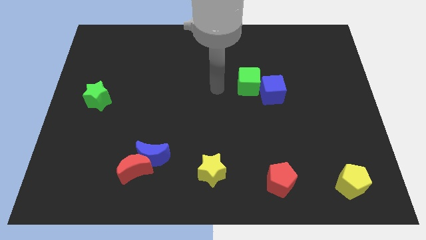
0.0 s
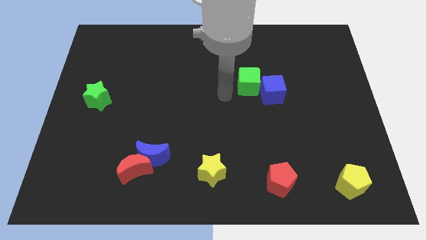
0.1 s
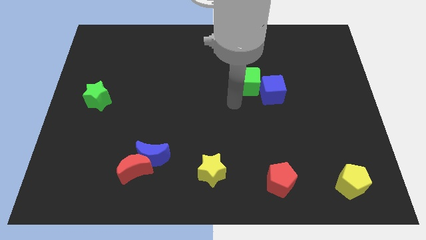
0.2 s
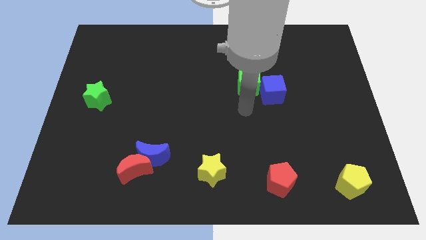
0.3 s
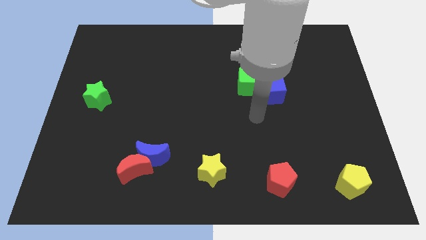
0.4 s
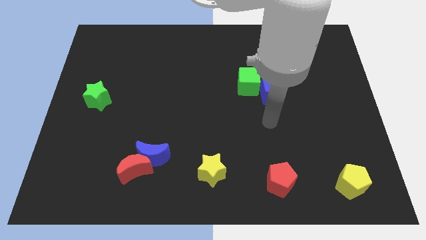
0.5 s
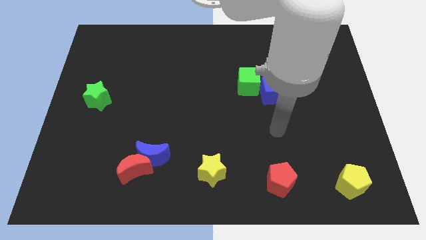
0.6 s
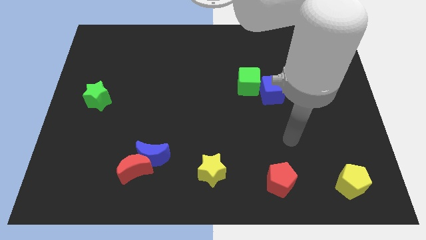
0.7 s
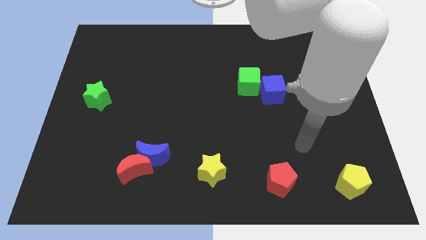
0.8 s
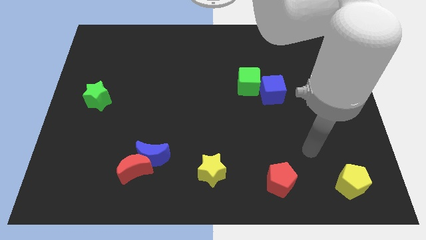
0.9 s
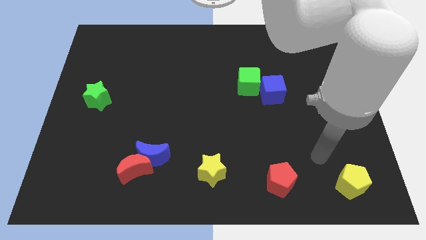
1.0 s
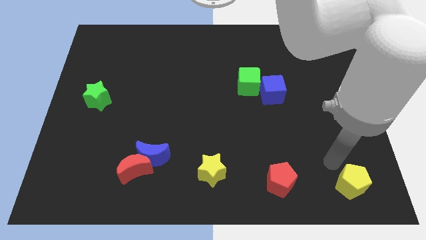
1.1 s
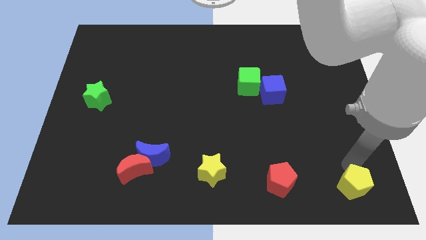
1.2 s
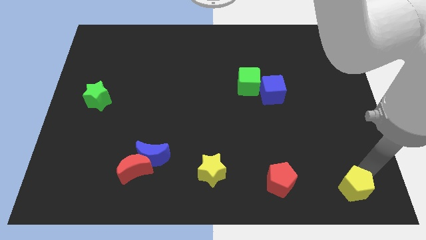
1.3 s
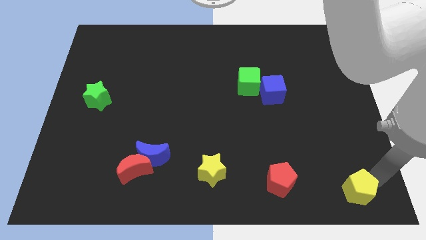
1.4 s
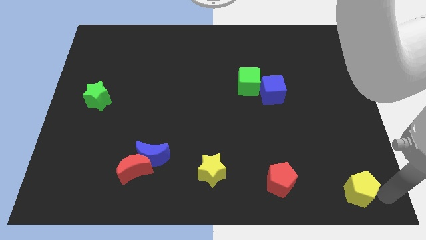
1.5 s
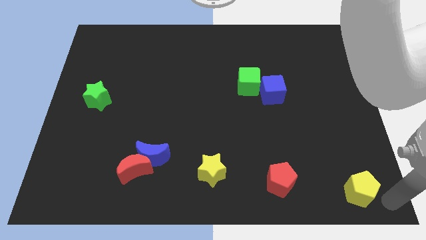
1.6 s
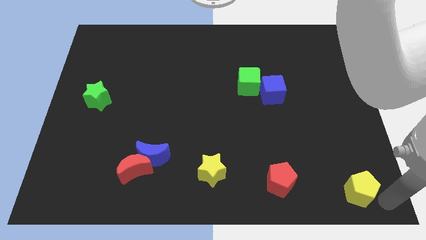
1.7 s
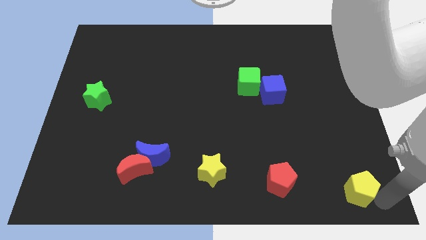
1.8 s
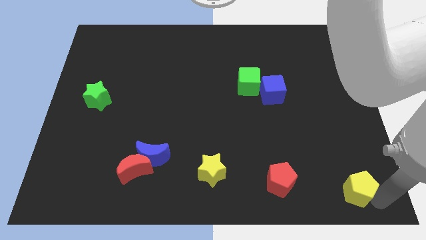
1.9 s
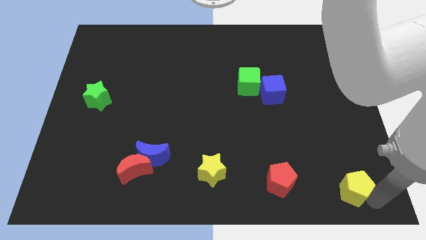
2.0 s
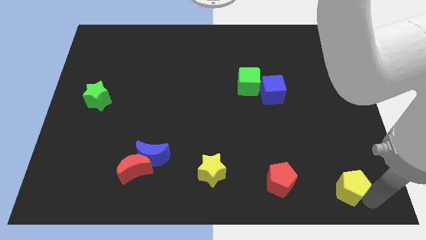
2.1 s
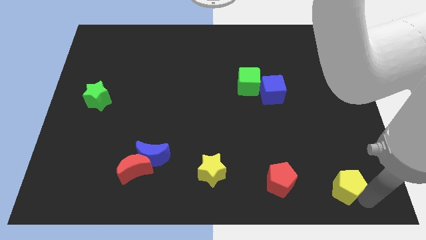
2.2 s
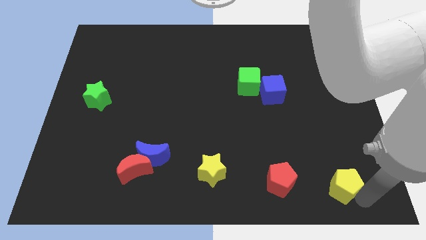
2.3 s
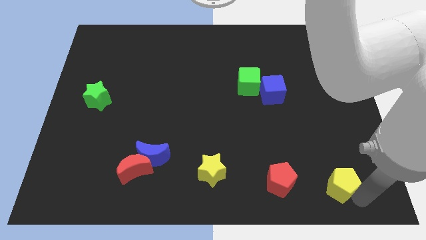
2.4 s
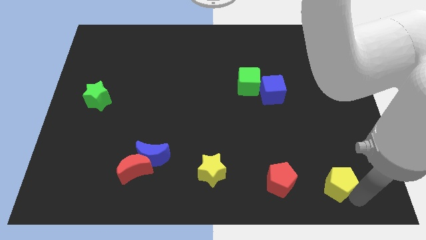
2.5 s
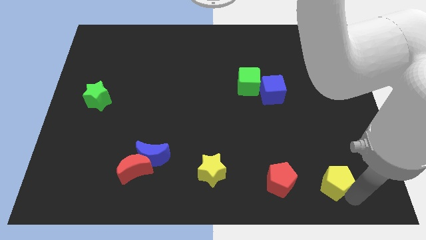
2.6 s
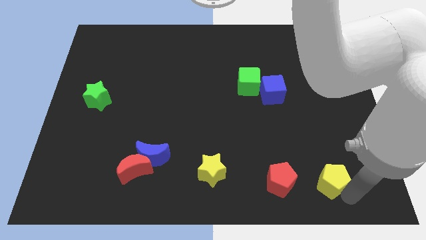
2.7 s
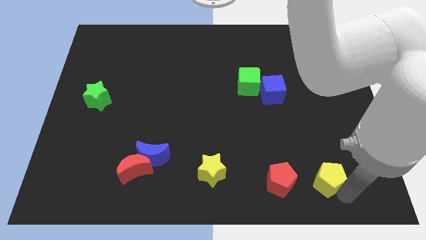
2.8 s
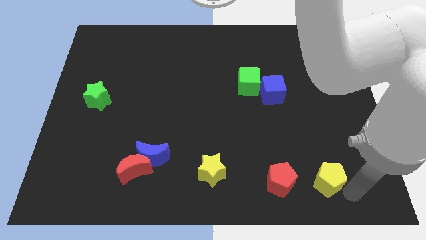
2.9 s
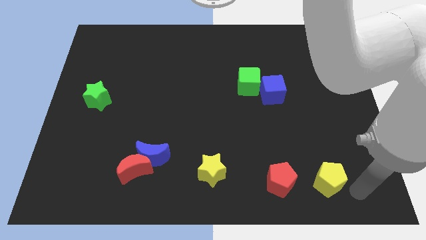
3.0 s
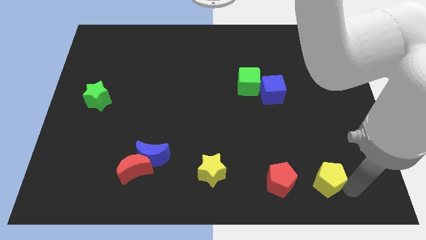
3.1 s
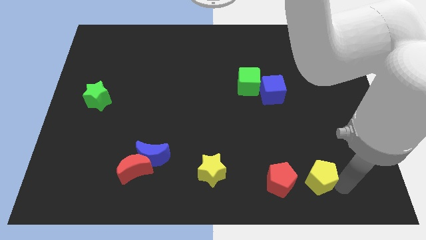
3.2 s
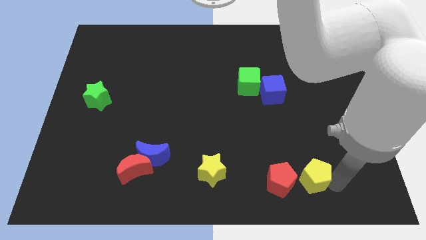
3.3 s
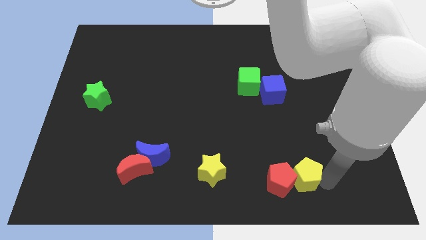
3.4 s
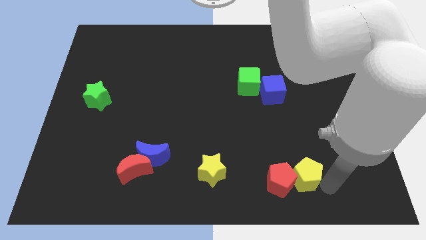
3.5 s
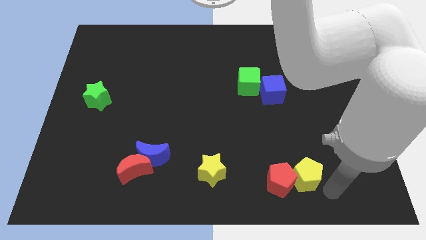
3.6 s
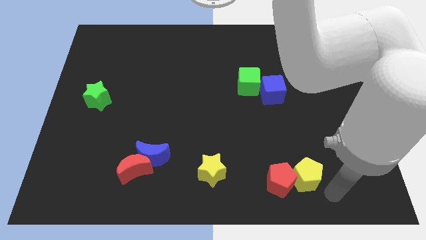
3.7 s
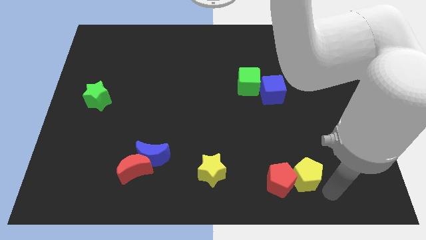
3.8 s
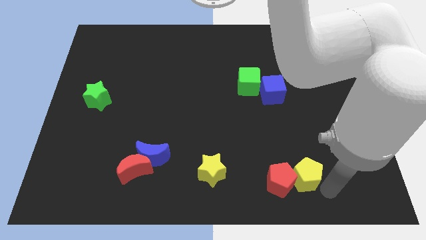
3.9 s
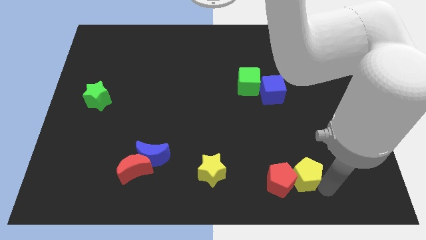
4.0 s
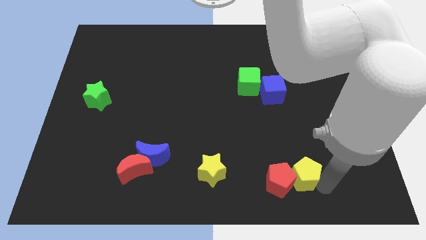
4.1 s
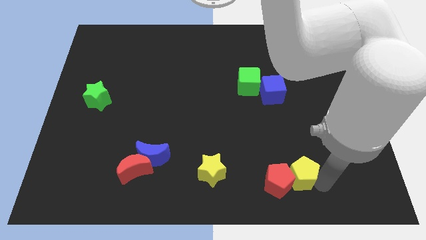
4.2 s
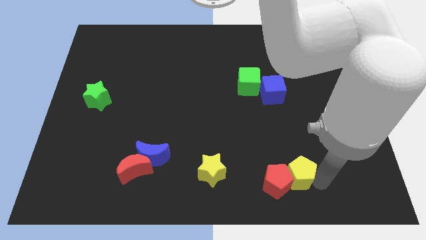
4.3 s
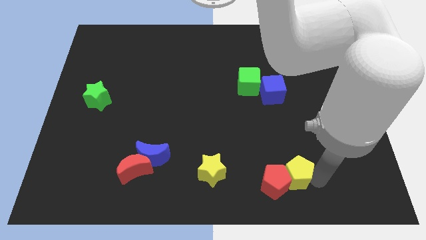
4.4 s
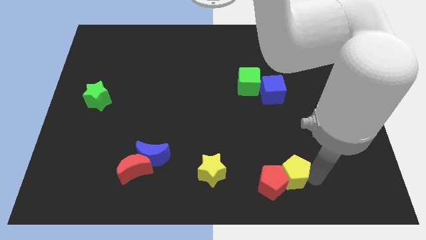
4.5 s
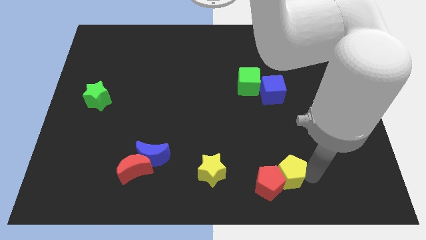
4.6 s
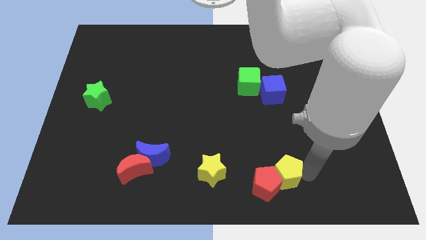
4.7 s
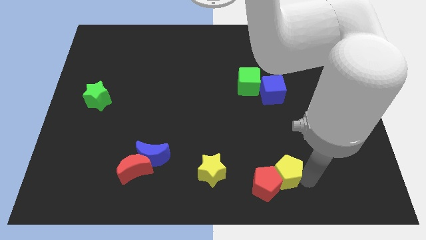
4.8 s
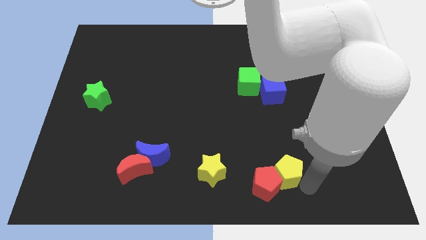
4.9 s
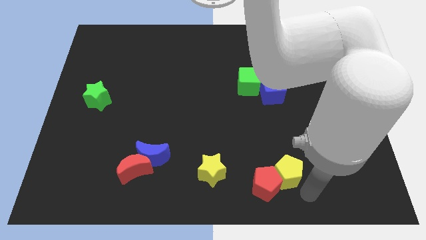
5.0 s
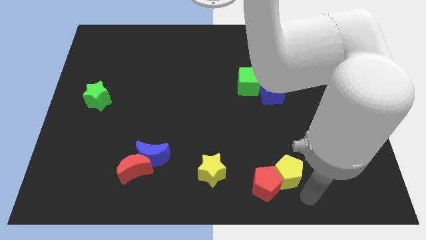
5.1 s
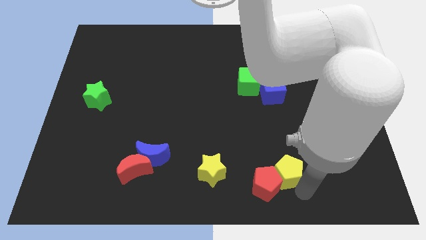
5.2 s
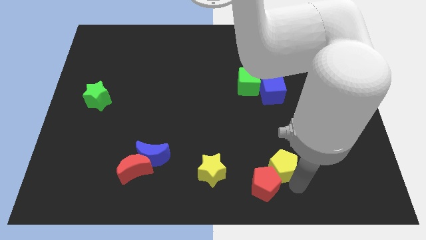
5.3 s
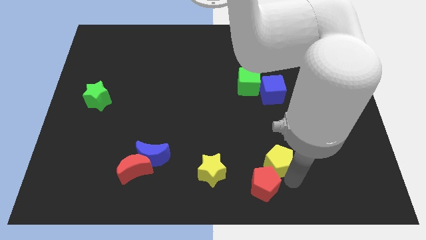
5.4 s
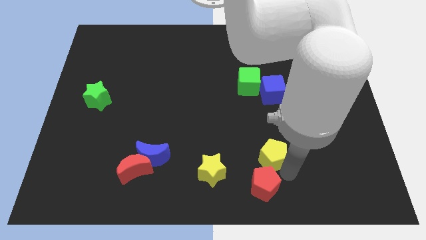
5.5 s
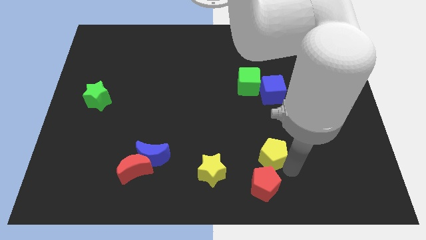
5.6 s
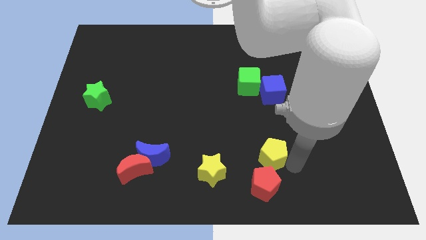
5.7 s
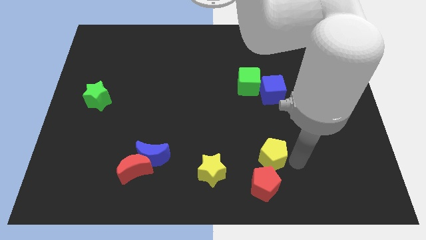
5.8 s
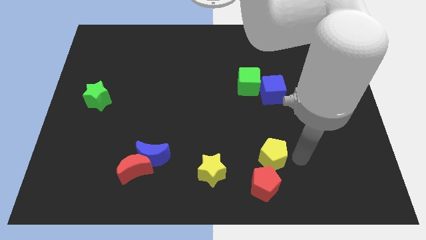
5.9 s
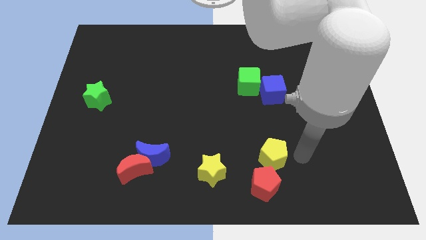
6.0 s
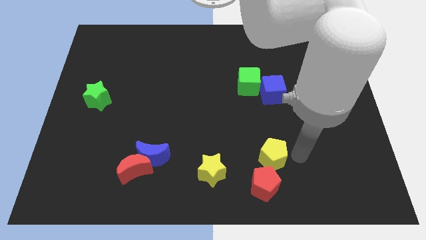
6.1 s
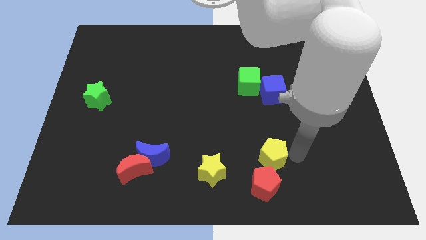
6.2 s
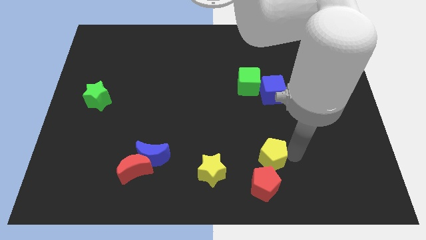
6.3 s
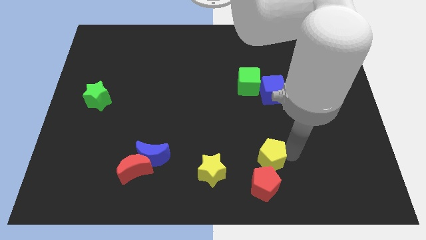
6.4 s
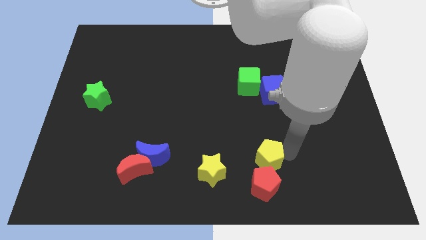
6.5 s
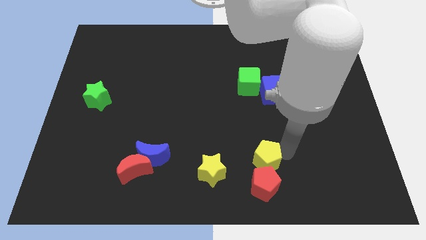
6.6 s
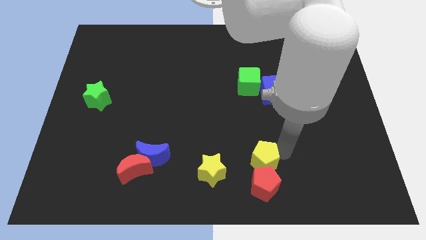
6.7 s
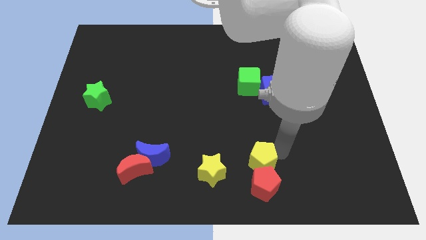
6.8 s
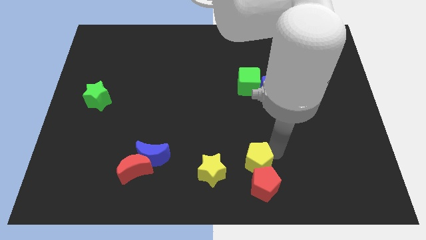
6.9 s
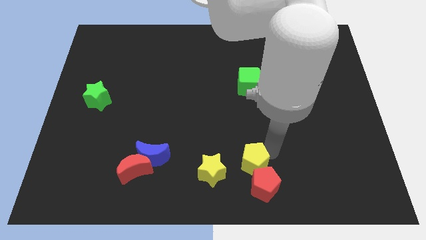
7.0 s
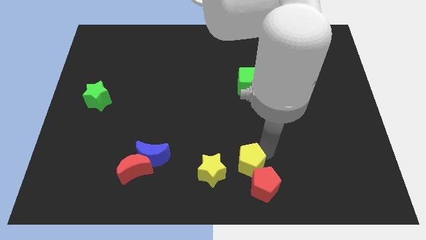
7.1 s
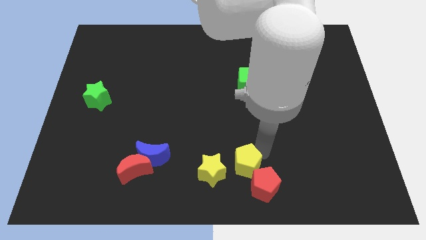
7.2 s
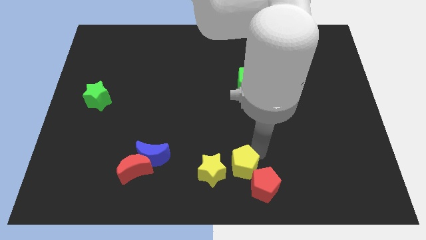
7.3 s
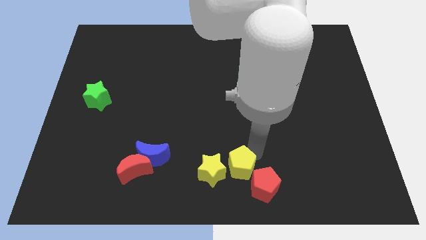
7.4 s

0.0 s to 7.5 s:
move the yellow pentagon close to the yellow star
